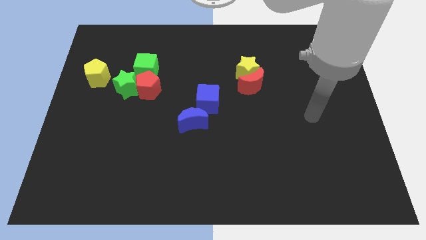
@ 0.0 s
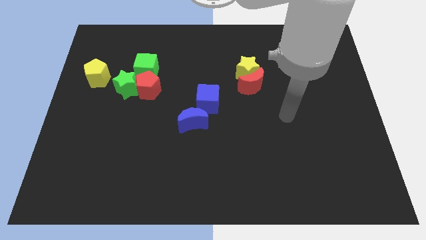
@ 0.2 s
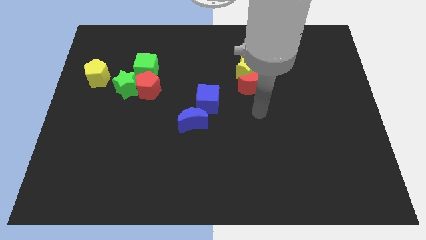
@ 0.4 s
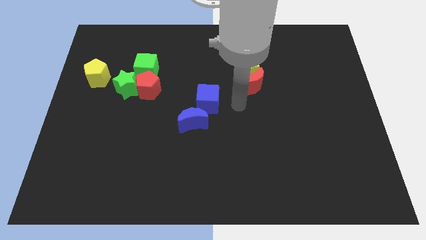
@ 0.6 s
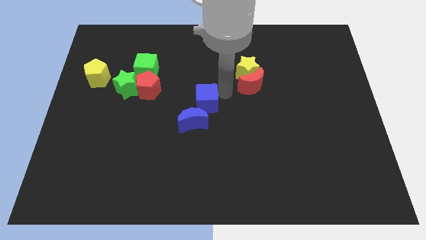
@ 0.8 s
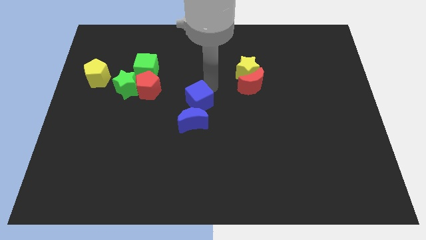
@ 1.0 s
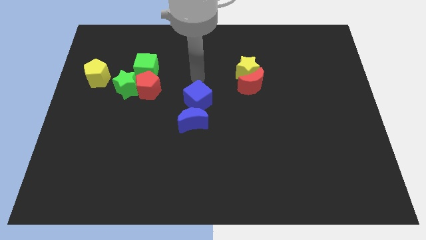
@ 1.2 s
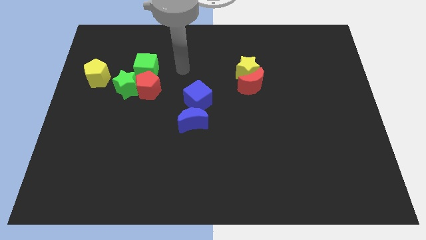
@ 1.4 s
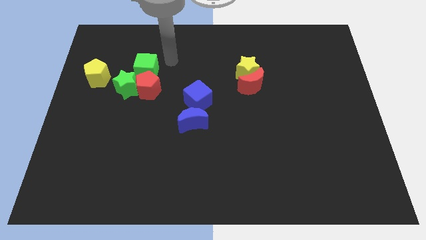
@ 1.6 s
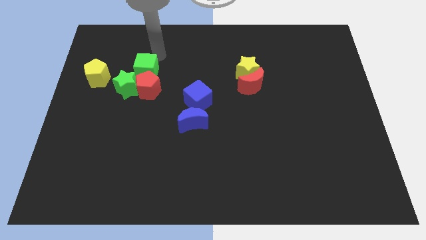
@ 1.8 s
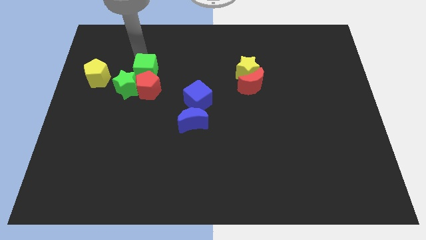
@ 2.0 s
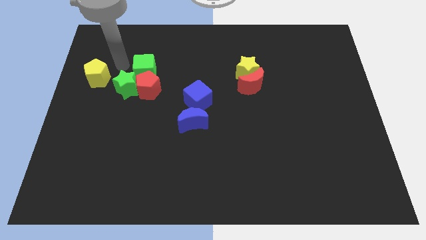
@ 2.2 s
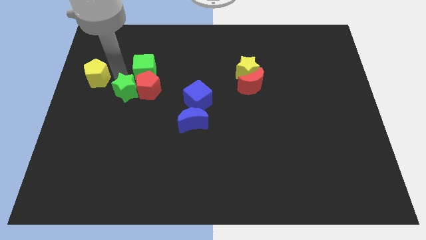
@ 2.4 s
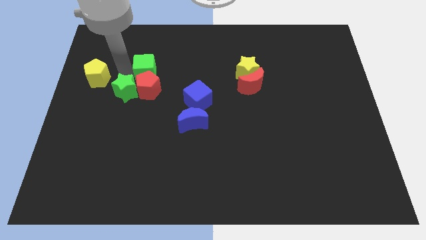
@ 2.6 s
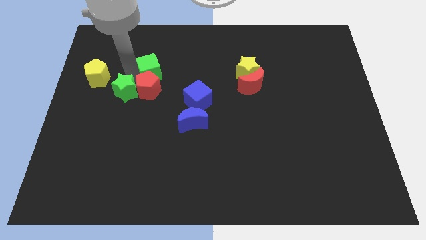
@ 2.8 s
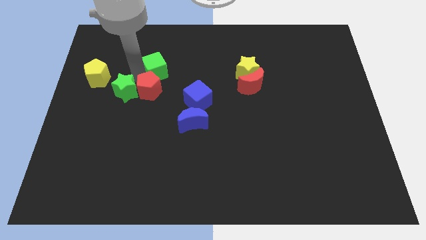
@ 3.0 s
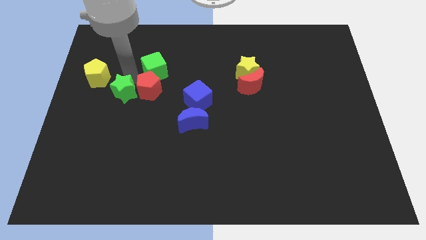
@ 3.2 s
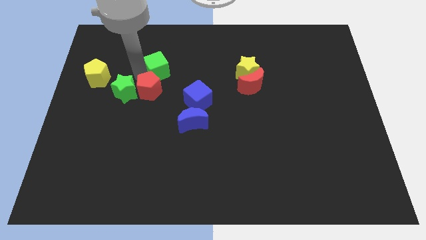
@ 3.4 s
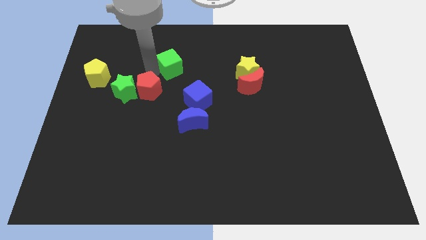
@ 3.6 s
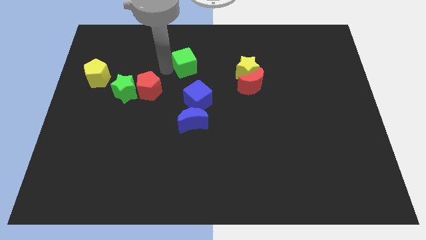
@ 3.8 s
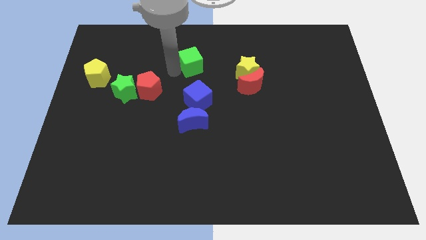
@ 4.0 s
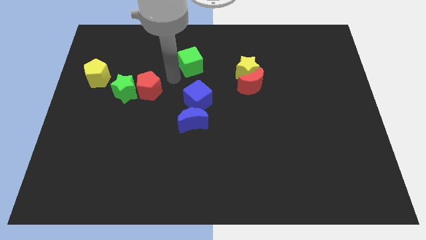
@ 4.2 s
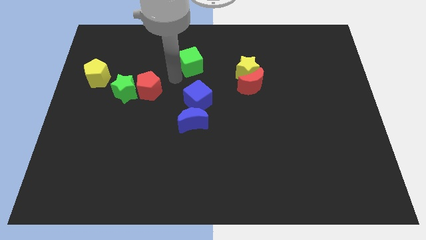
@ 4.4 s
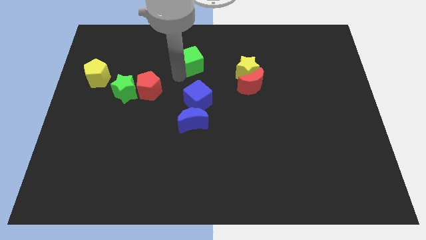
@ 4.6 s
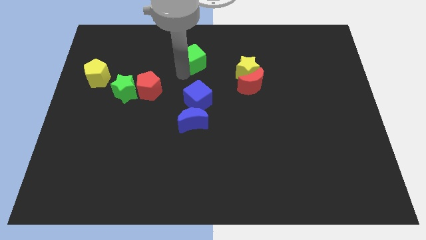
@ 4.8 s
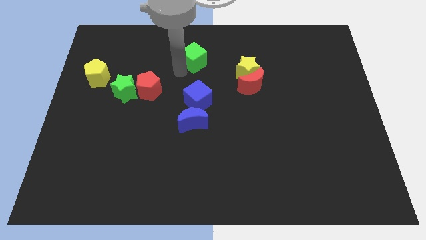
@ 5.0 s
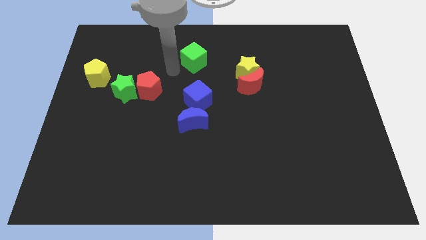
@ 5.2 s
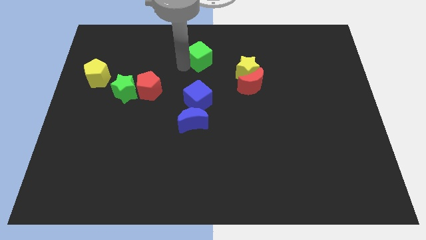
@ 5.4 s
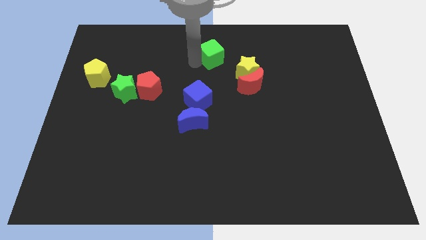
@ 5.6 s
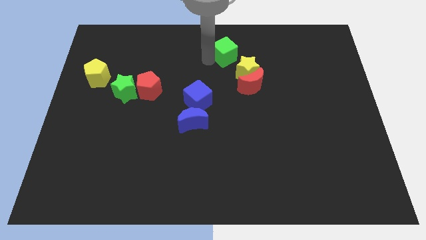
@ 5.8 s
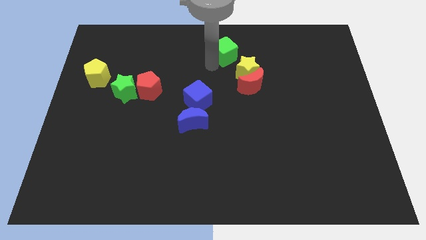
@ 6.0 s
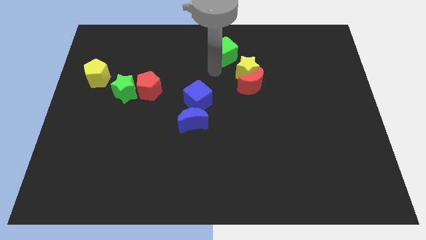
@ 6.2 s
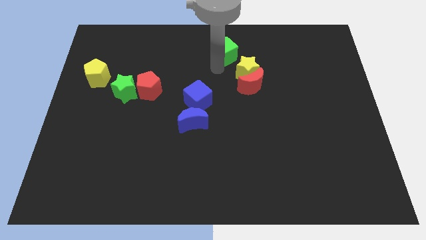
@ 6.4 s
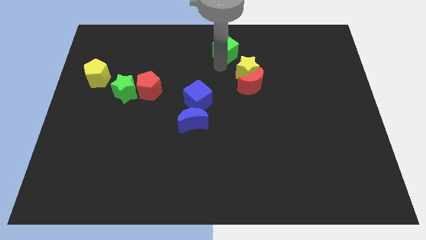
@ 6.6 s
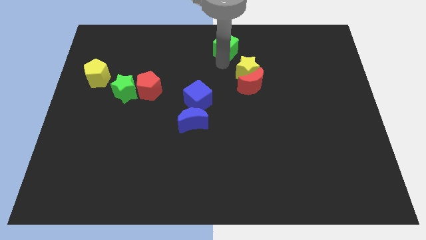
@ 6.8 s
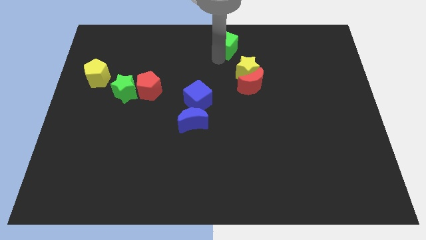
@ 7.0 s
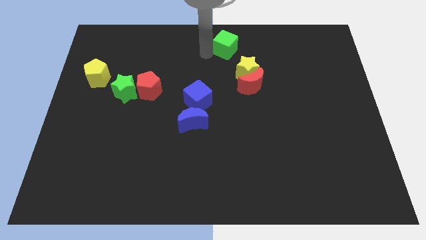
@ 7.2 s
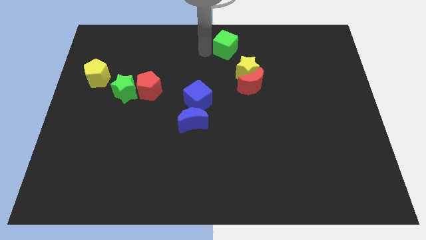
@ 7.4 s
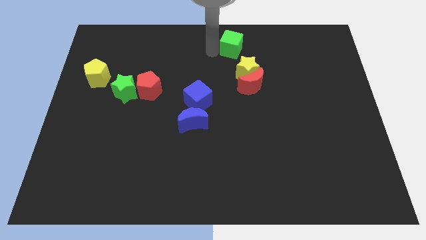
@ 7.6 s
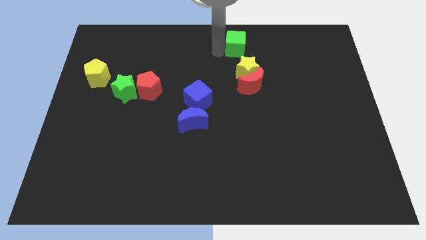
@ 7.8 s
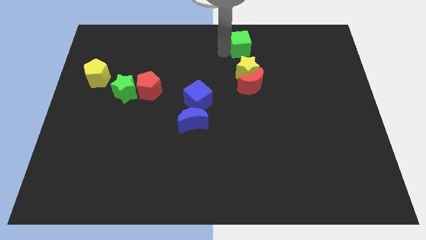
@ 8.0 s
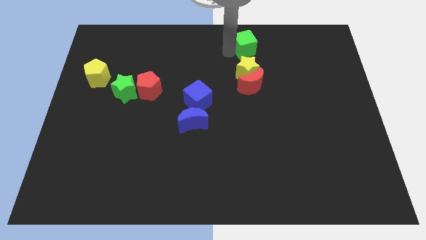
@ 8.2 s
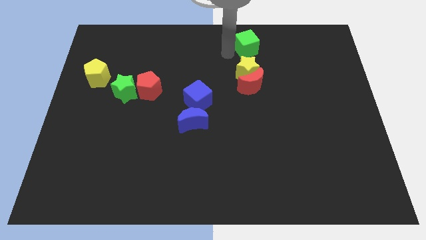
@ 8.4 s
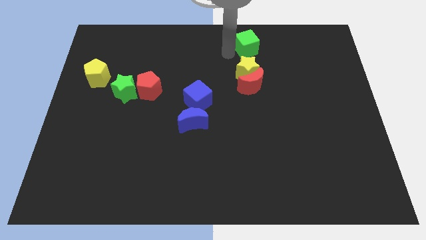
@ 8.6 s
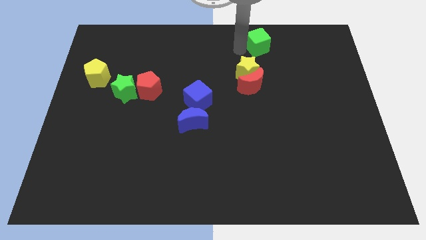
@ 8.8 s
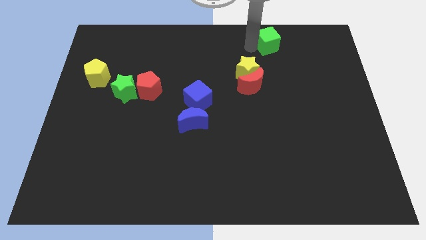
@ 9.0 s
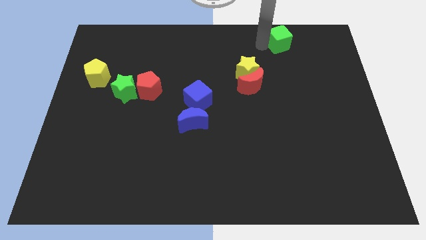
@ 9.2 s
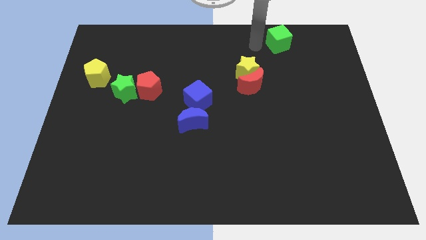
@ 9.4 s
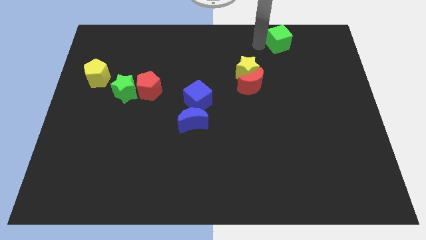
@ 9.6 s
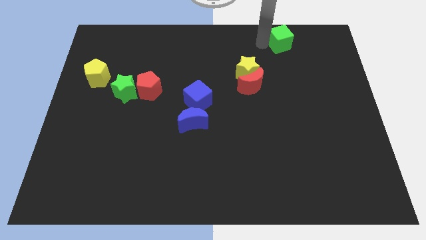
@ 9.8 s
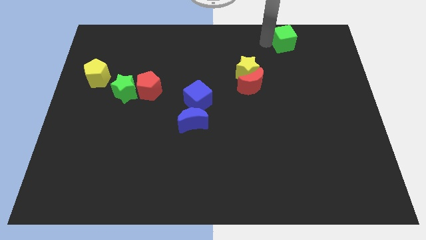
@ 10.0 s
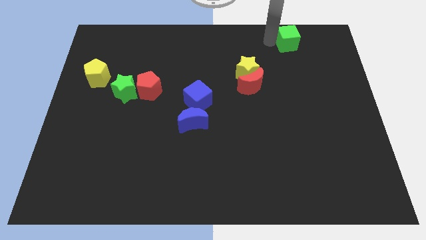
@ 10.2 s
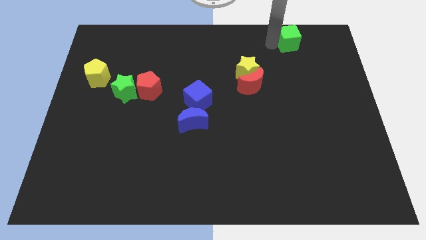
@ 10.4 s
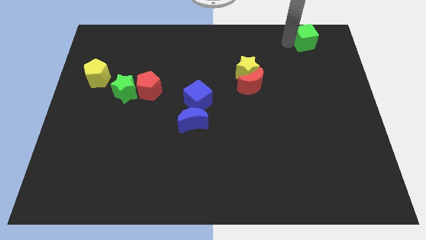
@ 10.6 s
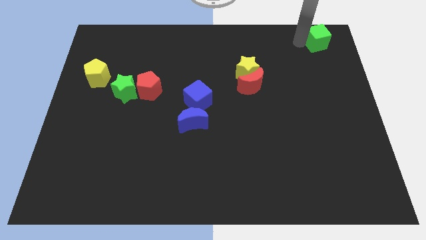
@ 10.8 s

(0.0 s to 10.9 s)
move the green cube to the top right of the board

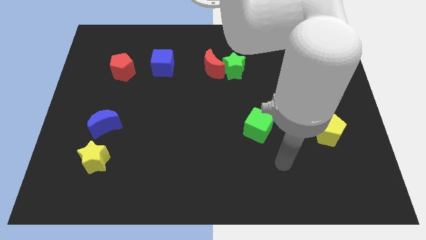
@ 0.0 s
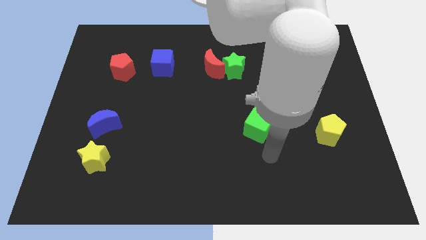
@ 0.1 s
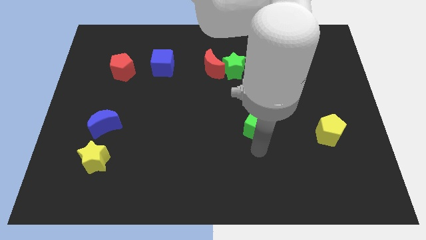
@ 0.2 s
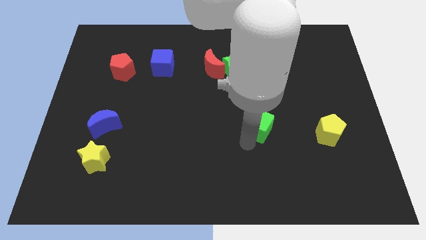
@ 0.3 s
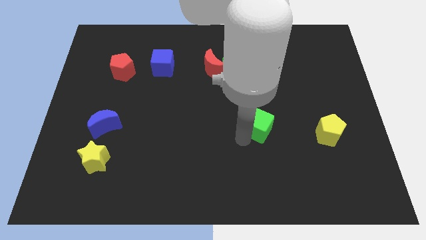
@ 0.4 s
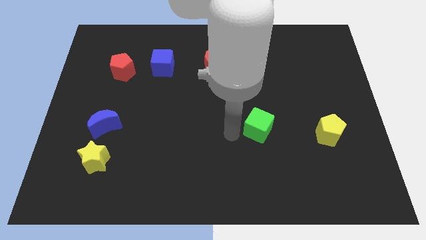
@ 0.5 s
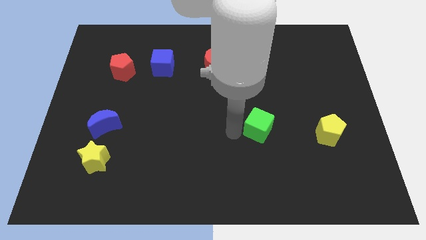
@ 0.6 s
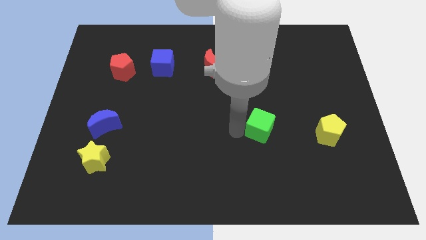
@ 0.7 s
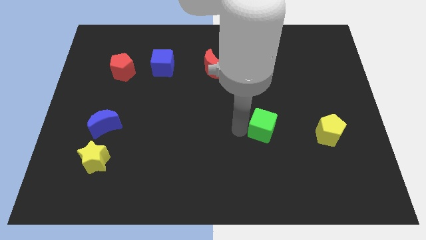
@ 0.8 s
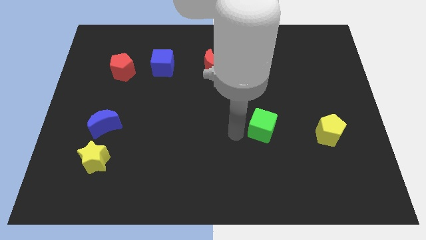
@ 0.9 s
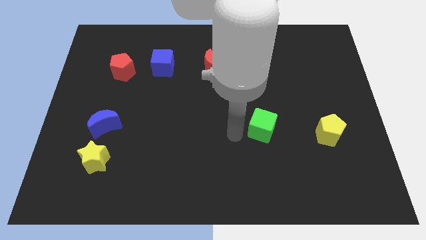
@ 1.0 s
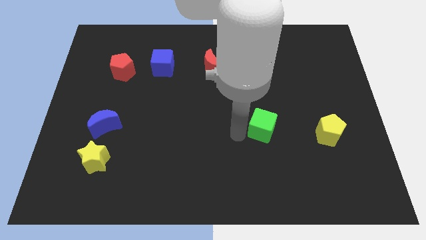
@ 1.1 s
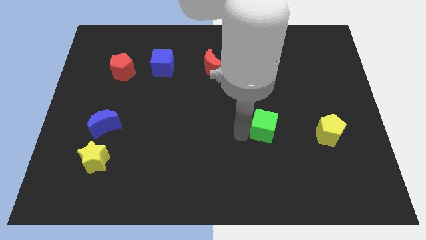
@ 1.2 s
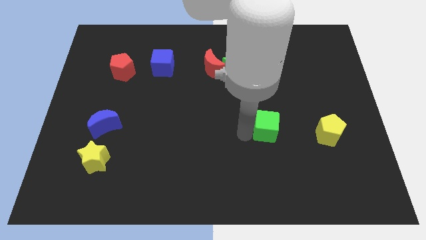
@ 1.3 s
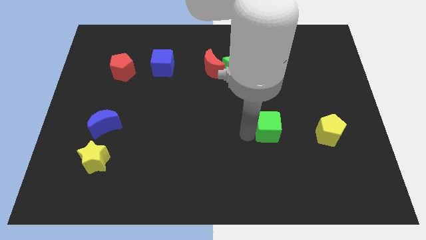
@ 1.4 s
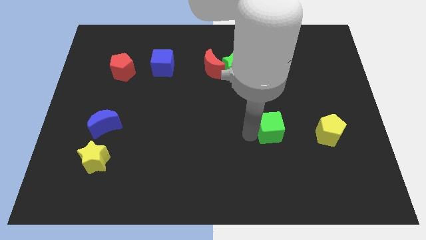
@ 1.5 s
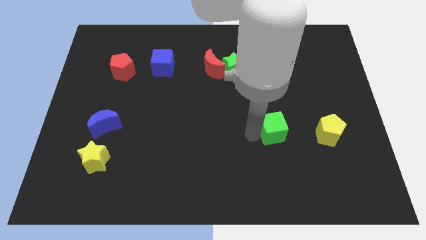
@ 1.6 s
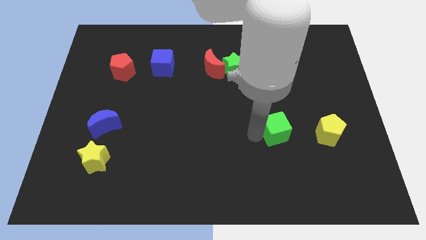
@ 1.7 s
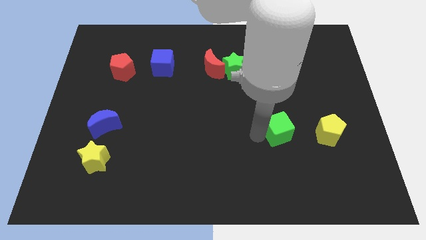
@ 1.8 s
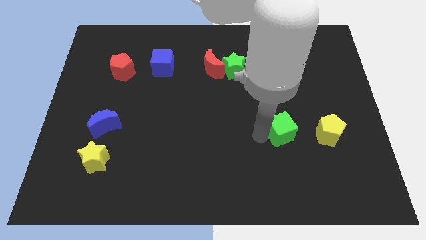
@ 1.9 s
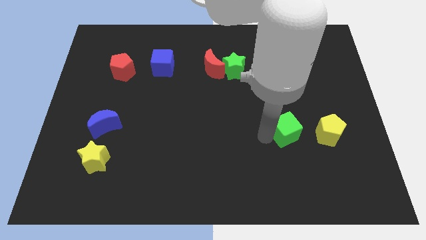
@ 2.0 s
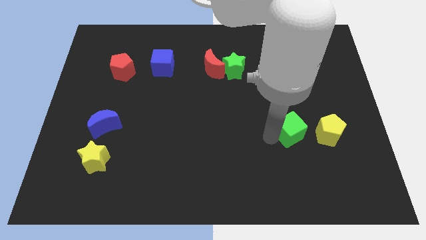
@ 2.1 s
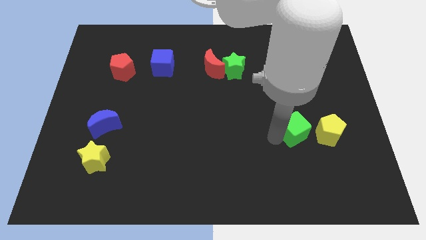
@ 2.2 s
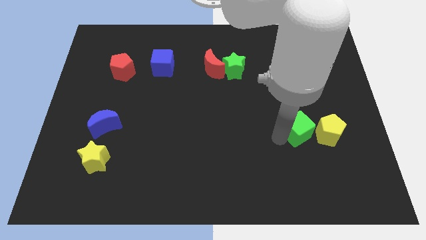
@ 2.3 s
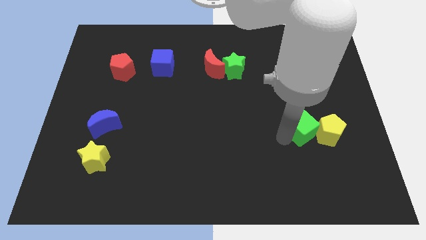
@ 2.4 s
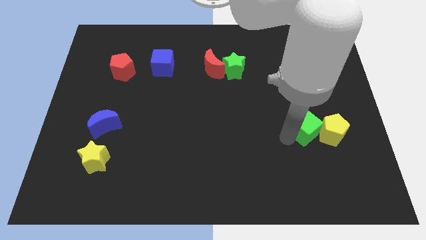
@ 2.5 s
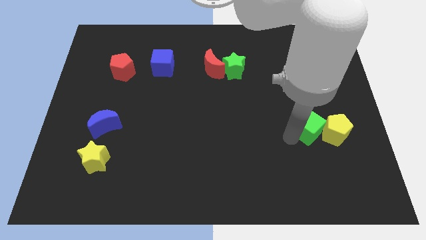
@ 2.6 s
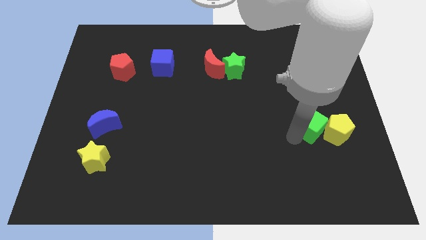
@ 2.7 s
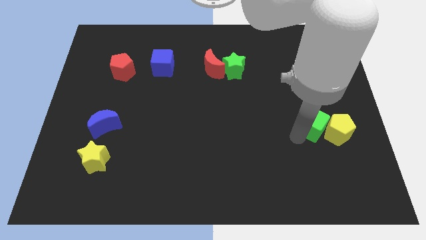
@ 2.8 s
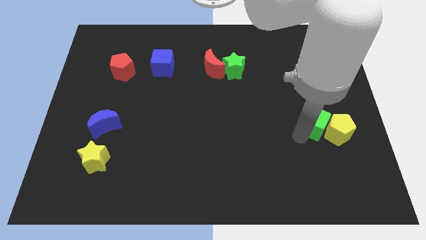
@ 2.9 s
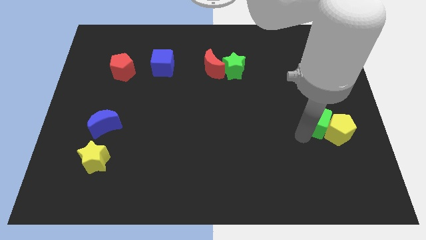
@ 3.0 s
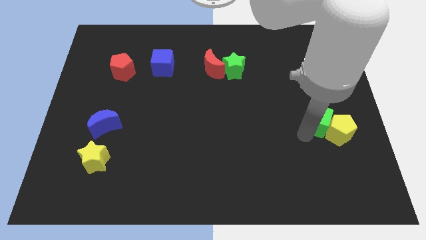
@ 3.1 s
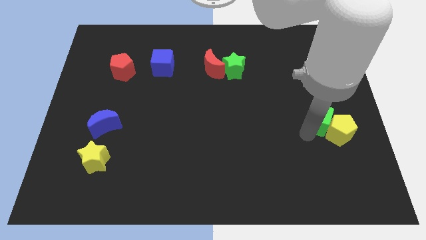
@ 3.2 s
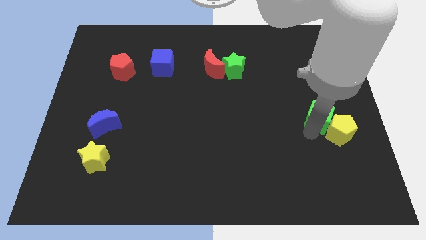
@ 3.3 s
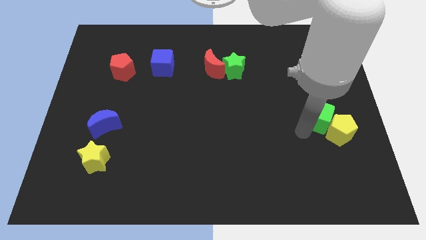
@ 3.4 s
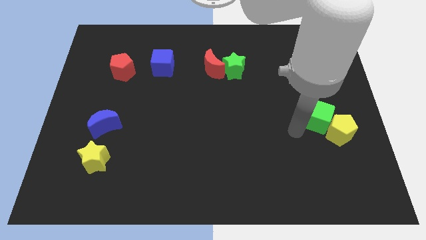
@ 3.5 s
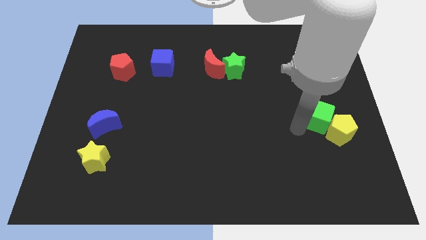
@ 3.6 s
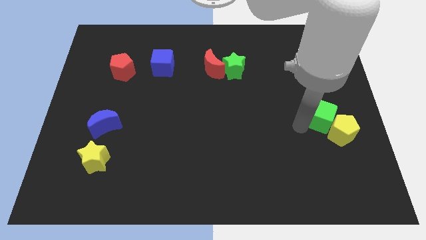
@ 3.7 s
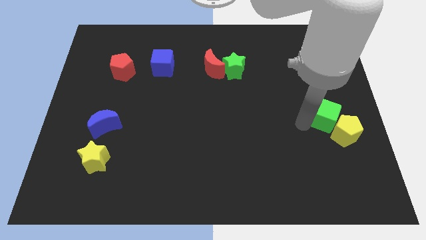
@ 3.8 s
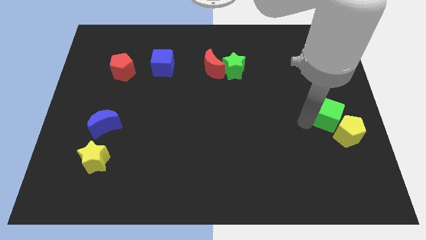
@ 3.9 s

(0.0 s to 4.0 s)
put the green cube to the right side
